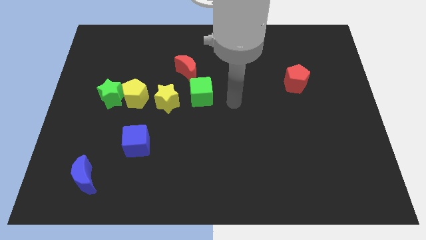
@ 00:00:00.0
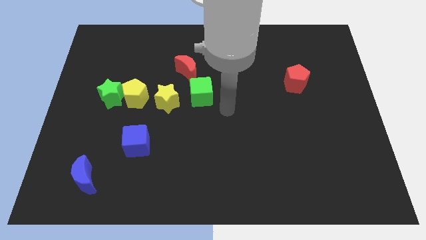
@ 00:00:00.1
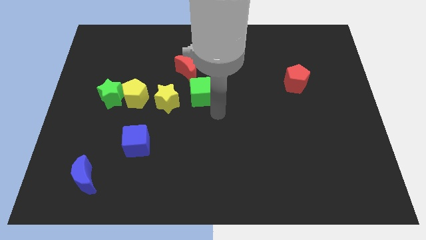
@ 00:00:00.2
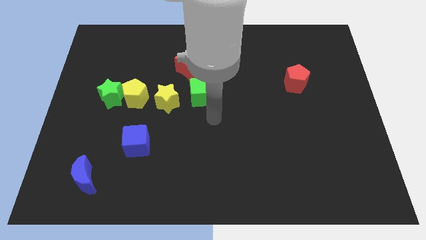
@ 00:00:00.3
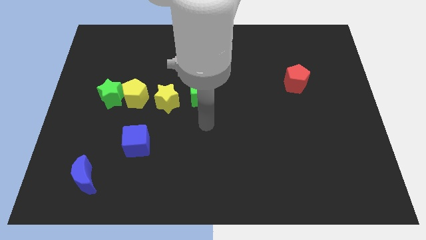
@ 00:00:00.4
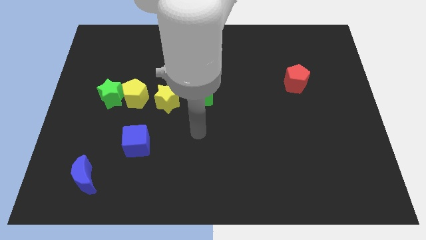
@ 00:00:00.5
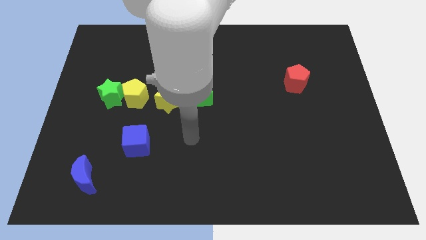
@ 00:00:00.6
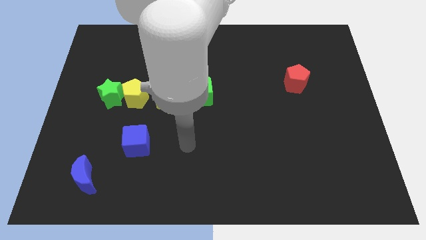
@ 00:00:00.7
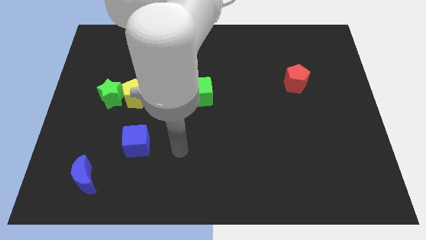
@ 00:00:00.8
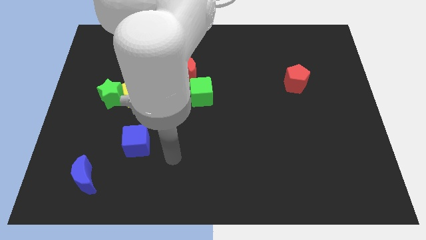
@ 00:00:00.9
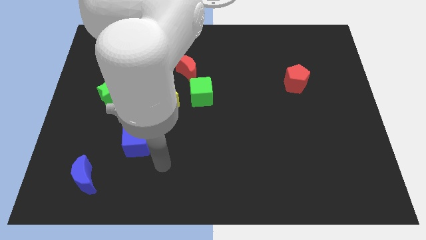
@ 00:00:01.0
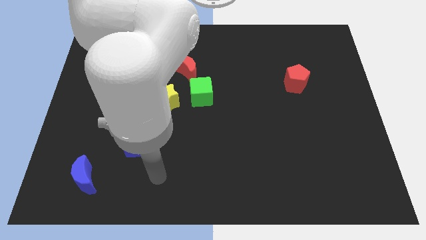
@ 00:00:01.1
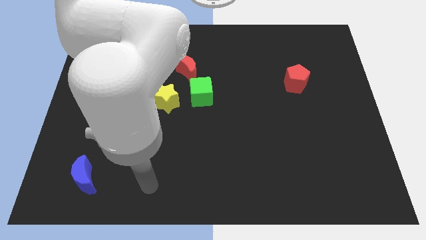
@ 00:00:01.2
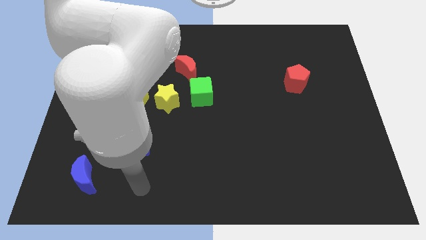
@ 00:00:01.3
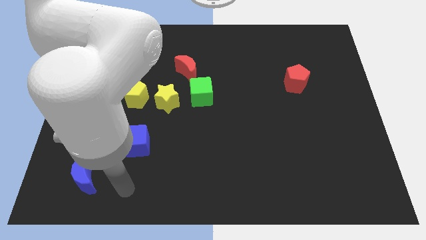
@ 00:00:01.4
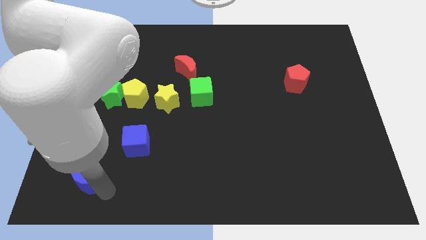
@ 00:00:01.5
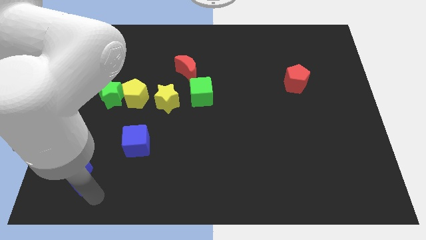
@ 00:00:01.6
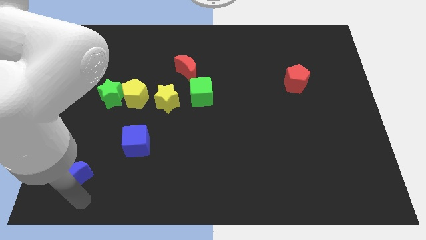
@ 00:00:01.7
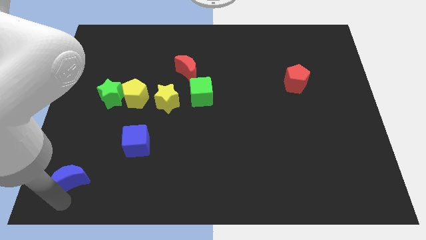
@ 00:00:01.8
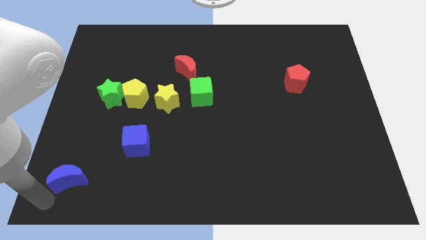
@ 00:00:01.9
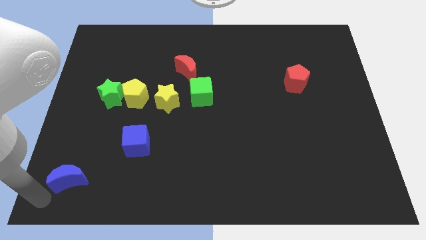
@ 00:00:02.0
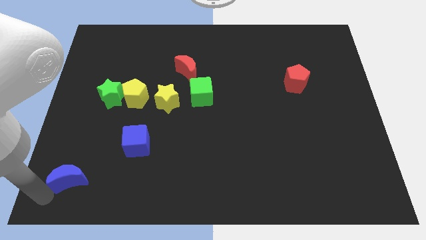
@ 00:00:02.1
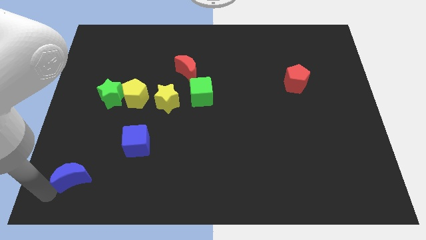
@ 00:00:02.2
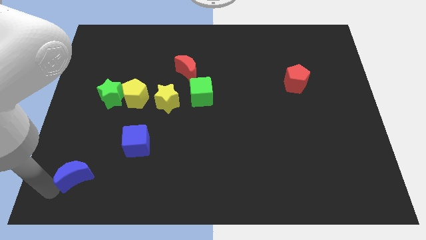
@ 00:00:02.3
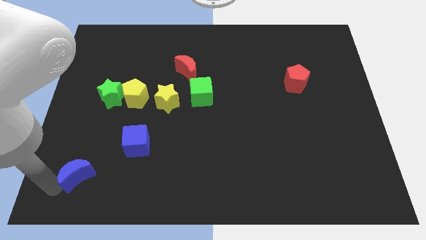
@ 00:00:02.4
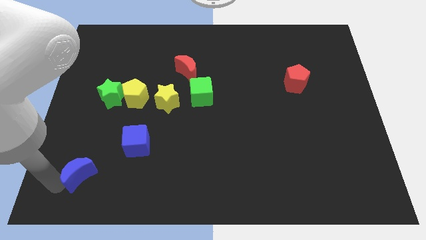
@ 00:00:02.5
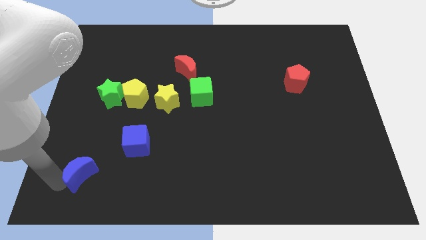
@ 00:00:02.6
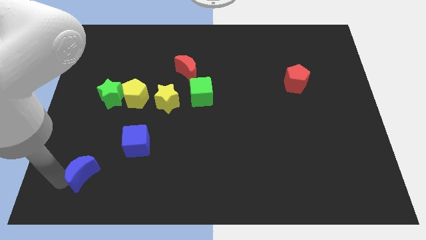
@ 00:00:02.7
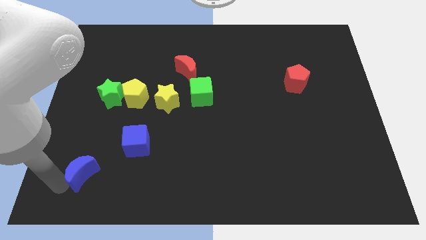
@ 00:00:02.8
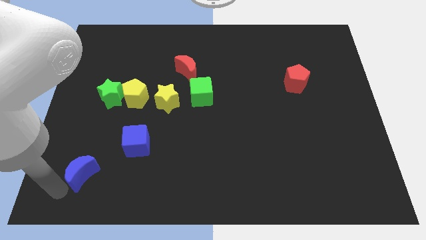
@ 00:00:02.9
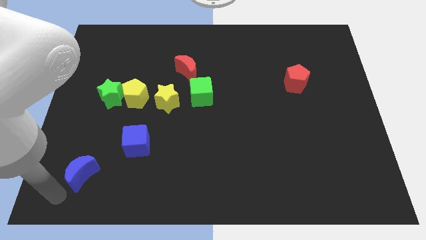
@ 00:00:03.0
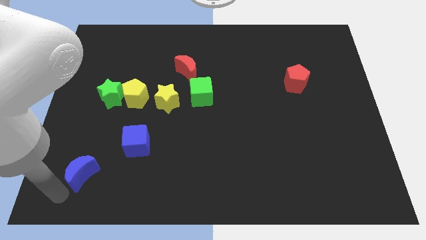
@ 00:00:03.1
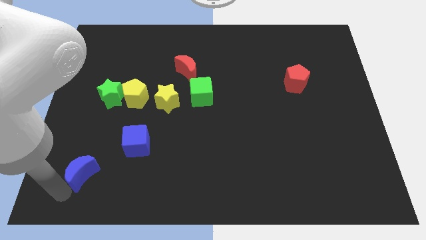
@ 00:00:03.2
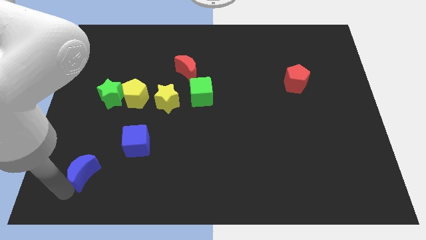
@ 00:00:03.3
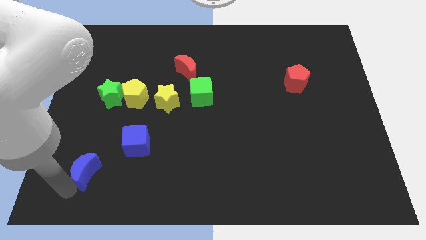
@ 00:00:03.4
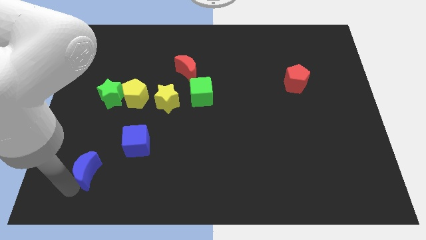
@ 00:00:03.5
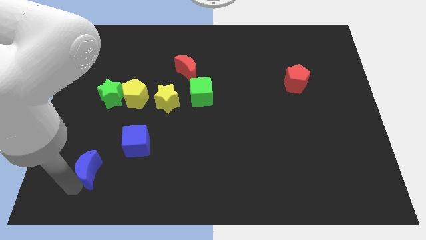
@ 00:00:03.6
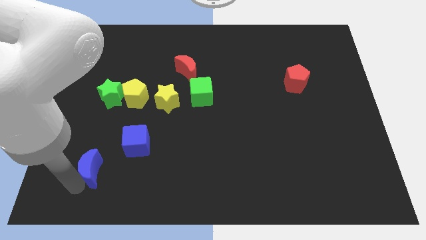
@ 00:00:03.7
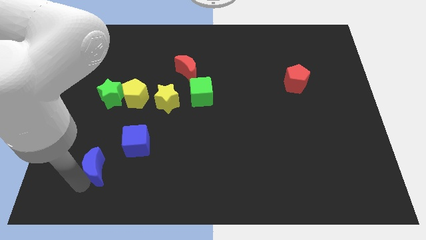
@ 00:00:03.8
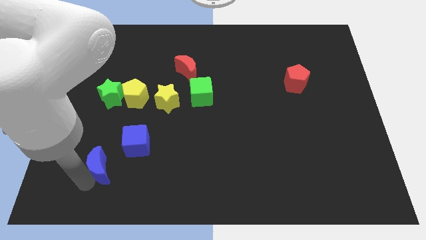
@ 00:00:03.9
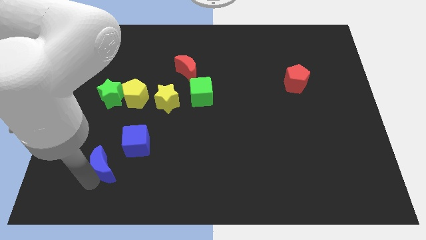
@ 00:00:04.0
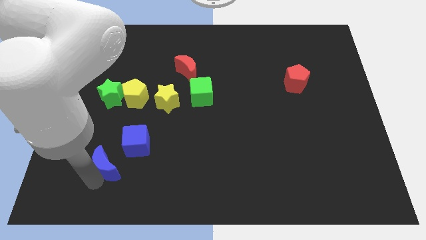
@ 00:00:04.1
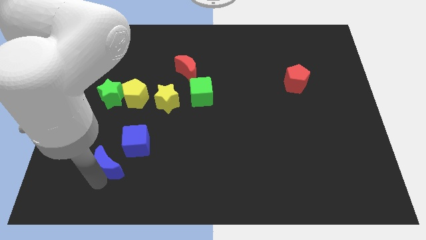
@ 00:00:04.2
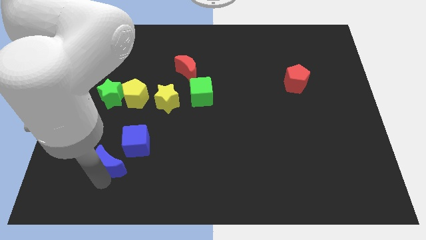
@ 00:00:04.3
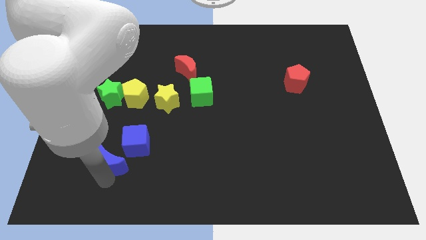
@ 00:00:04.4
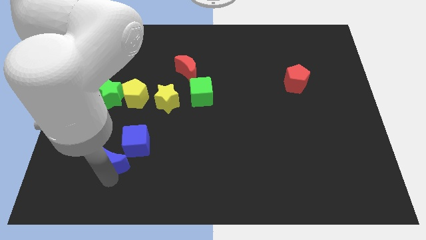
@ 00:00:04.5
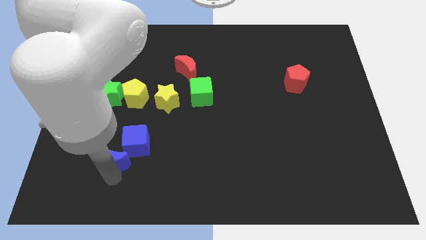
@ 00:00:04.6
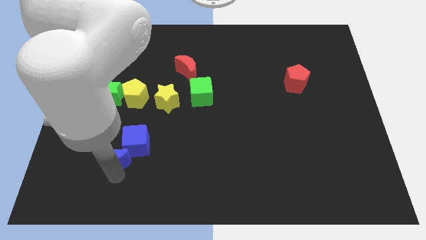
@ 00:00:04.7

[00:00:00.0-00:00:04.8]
slightly push the blue moon diagonally upwards and to the right

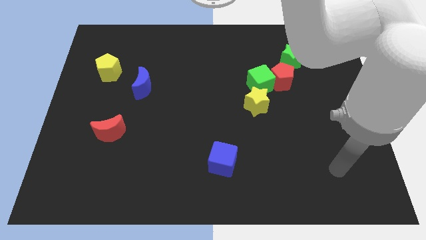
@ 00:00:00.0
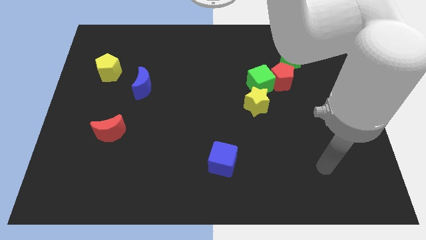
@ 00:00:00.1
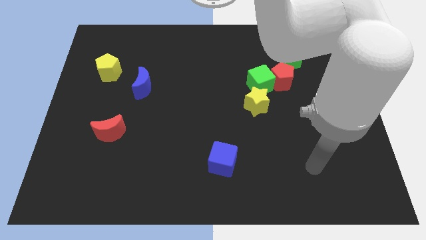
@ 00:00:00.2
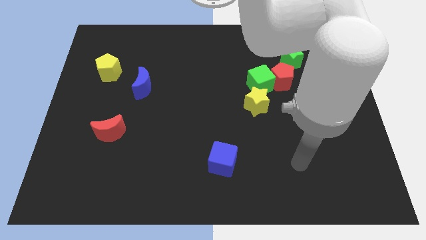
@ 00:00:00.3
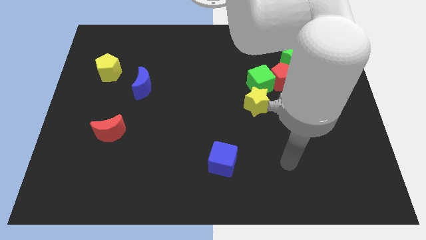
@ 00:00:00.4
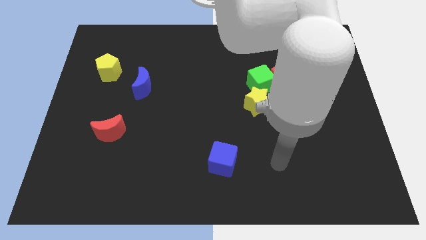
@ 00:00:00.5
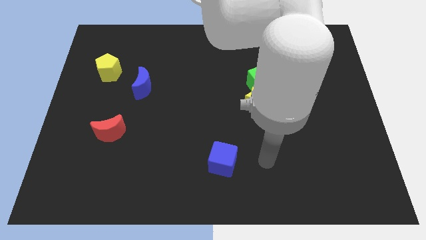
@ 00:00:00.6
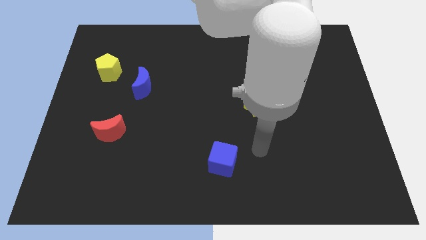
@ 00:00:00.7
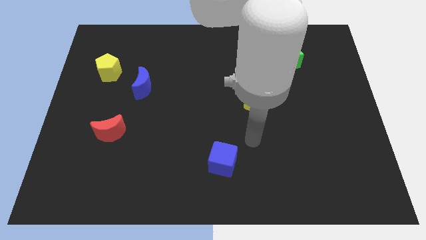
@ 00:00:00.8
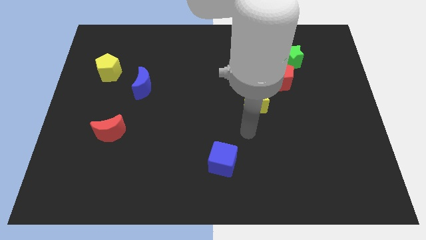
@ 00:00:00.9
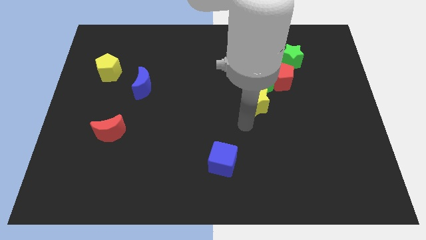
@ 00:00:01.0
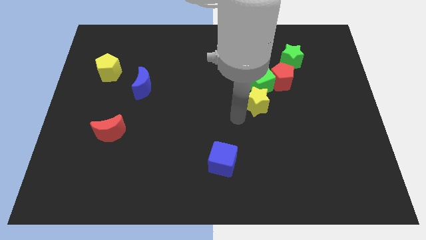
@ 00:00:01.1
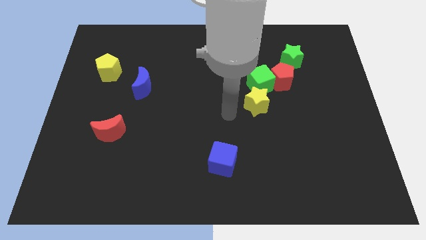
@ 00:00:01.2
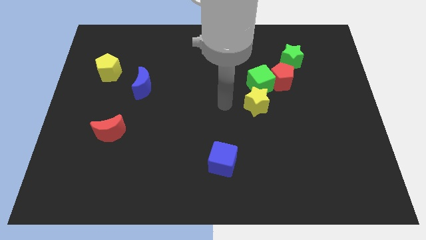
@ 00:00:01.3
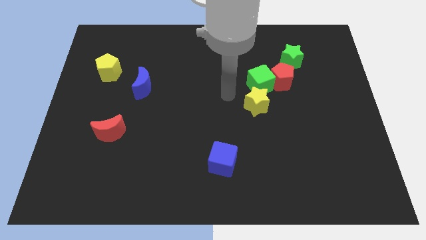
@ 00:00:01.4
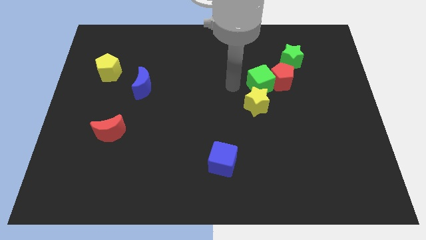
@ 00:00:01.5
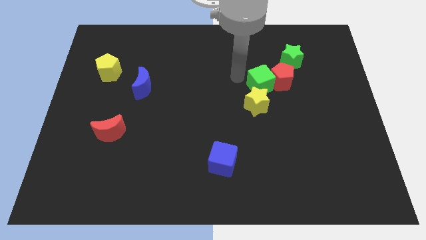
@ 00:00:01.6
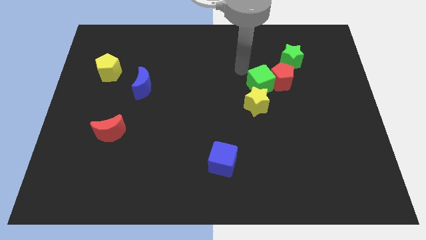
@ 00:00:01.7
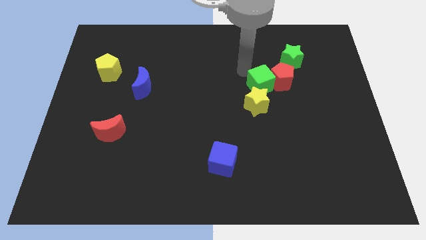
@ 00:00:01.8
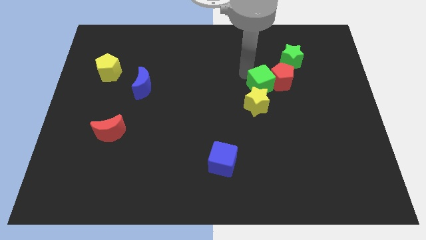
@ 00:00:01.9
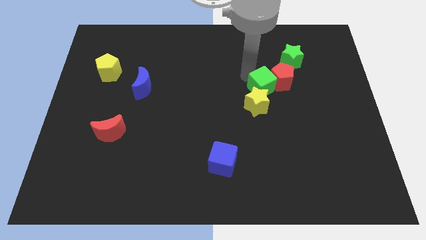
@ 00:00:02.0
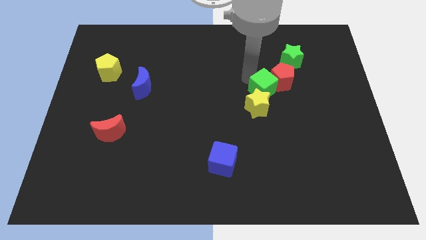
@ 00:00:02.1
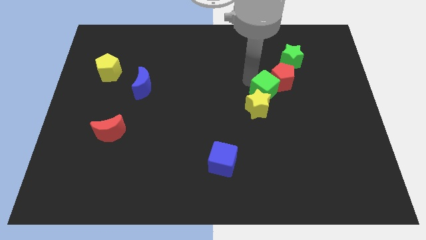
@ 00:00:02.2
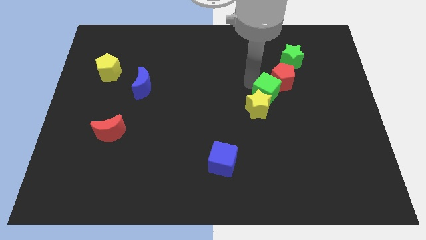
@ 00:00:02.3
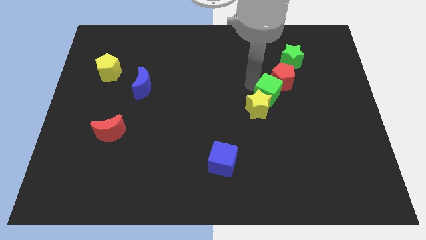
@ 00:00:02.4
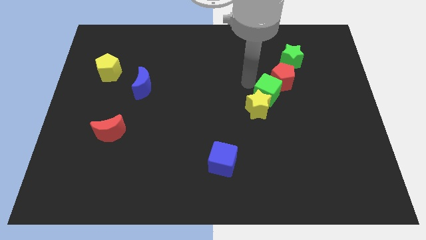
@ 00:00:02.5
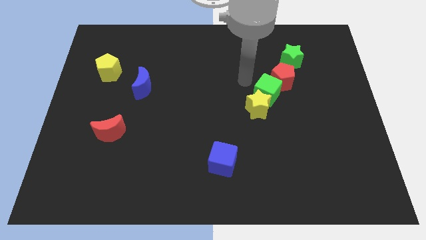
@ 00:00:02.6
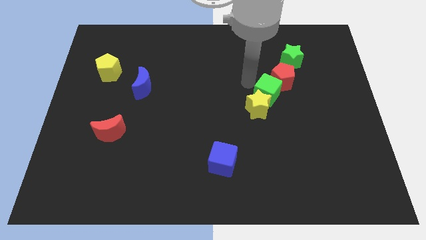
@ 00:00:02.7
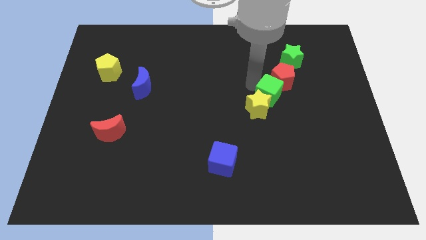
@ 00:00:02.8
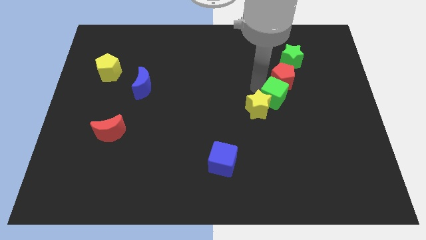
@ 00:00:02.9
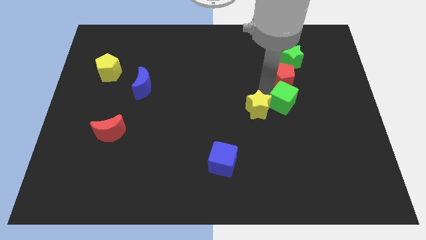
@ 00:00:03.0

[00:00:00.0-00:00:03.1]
slightly push the green cube downwards and right diagonally
